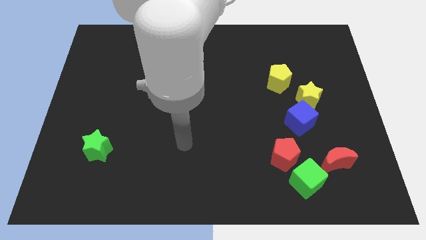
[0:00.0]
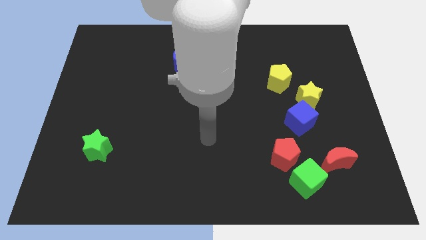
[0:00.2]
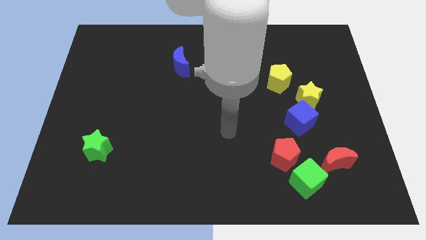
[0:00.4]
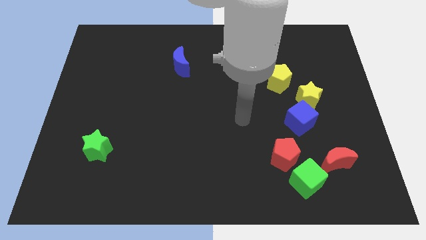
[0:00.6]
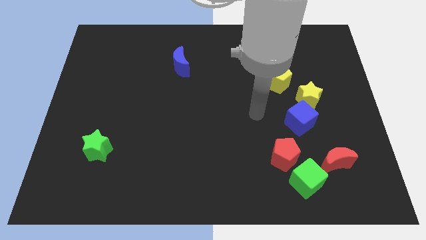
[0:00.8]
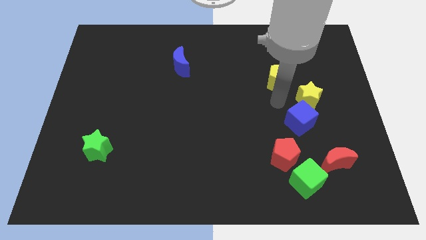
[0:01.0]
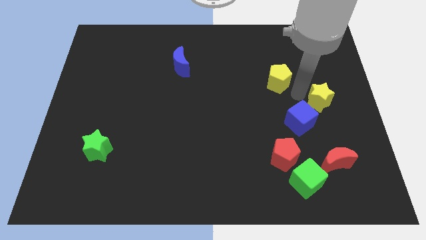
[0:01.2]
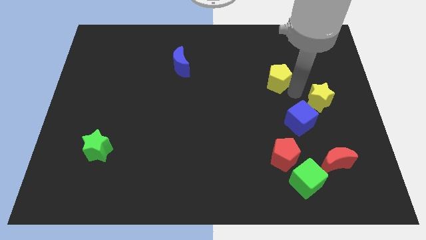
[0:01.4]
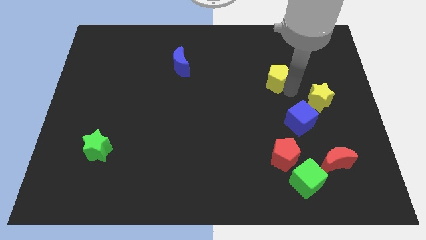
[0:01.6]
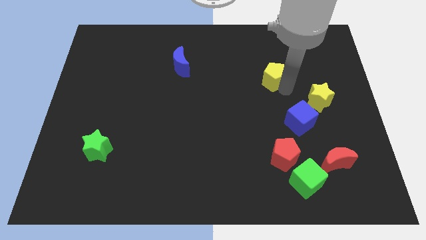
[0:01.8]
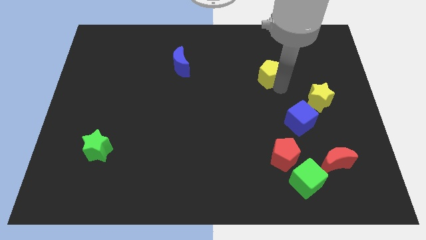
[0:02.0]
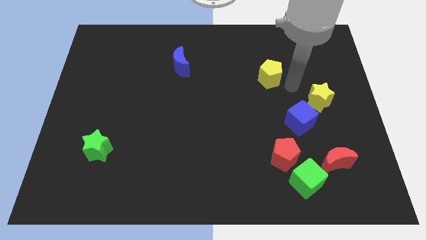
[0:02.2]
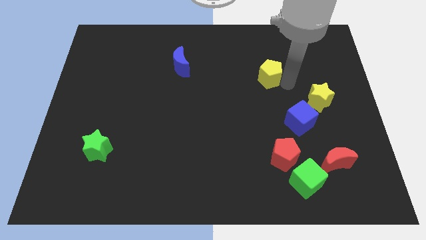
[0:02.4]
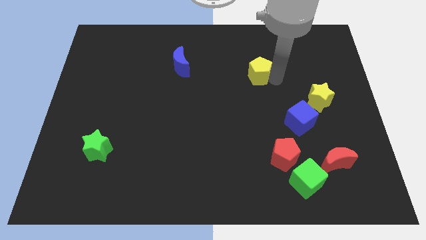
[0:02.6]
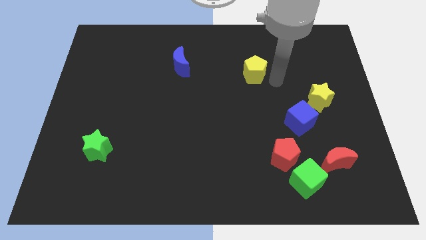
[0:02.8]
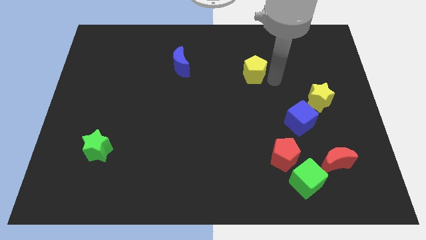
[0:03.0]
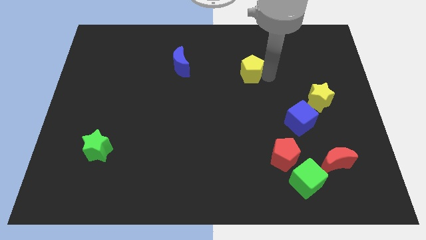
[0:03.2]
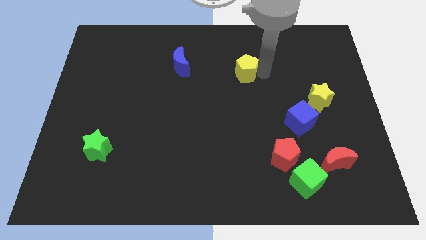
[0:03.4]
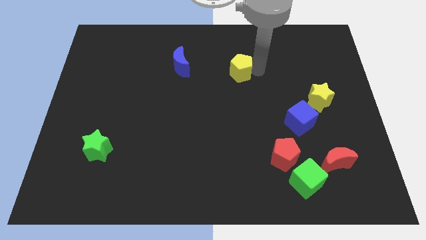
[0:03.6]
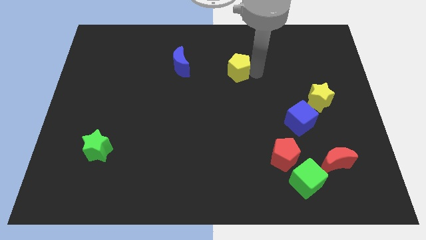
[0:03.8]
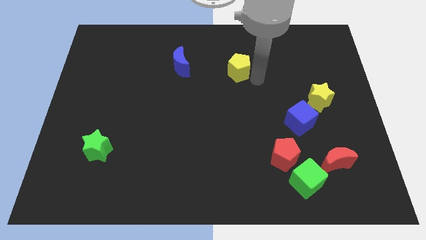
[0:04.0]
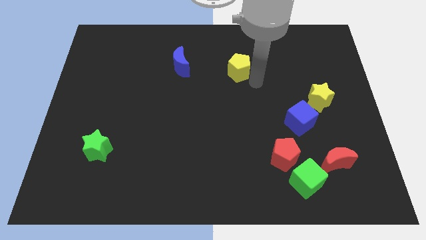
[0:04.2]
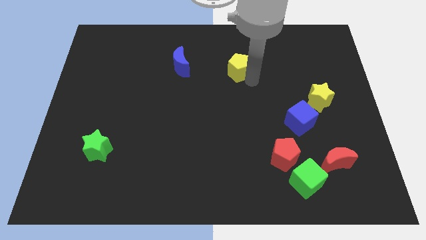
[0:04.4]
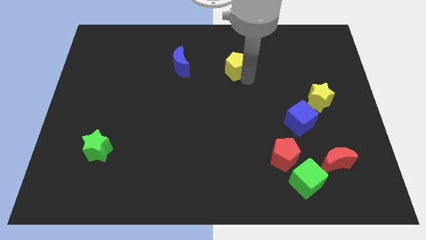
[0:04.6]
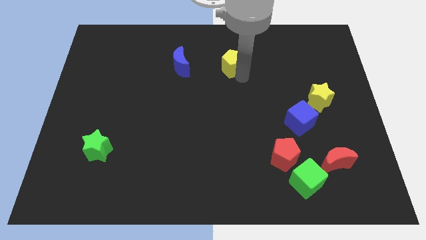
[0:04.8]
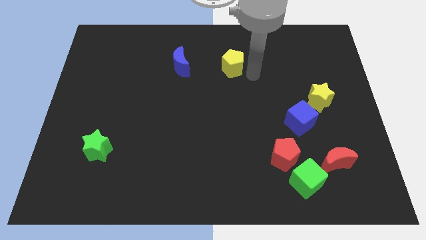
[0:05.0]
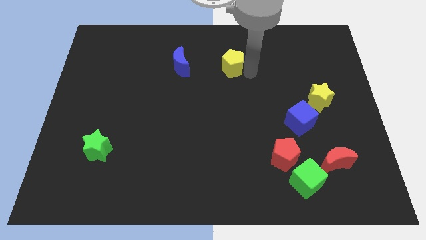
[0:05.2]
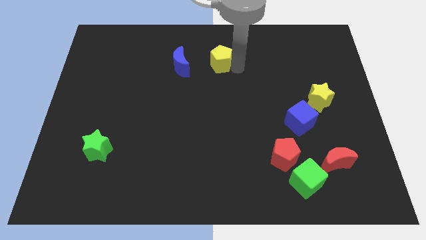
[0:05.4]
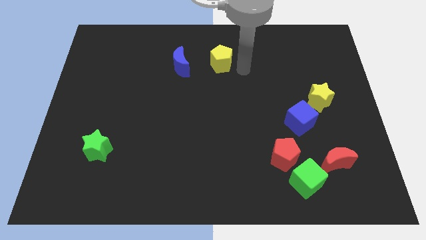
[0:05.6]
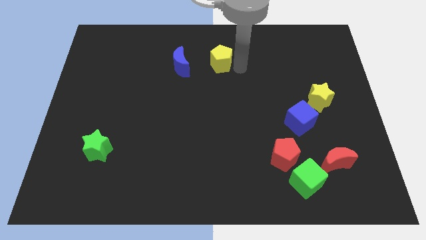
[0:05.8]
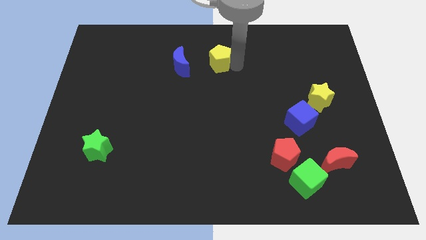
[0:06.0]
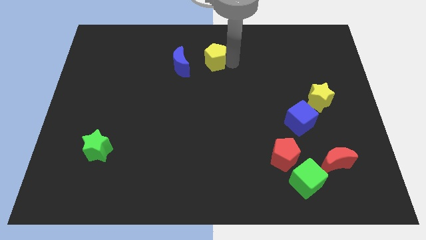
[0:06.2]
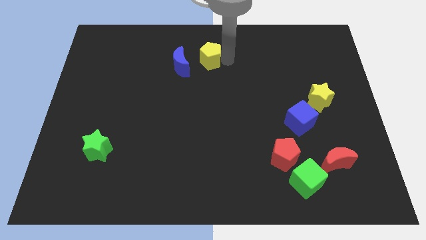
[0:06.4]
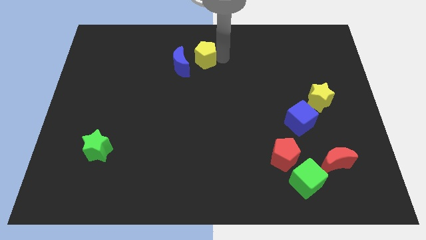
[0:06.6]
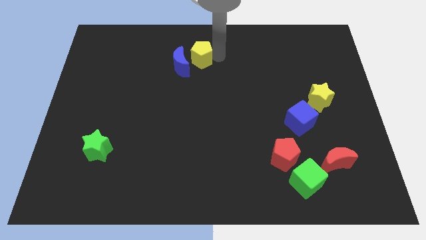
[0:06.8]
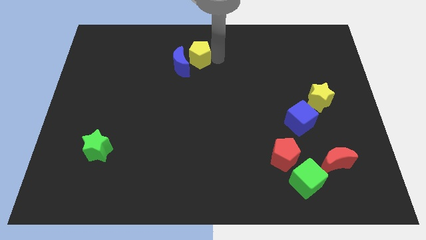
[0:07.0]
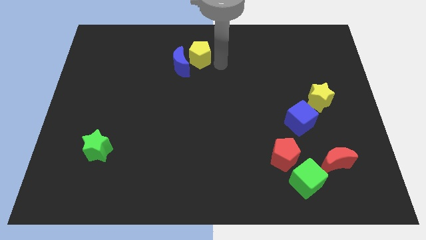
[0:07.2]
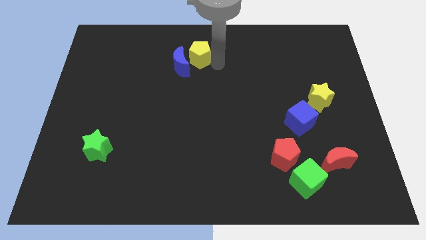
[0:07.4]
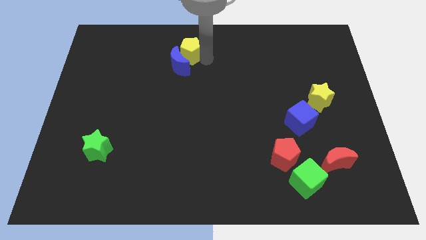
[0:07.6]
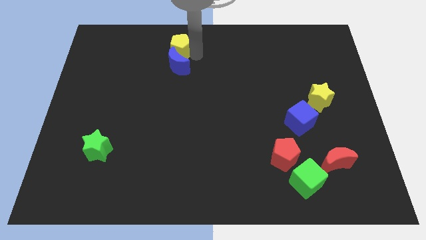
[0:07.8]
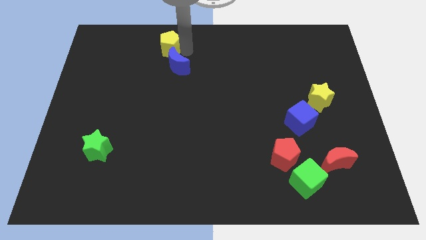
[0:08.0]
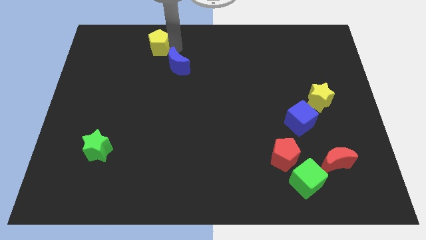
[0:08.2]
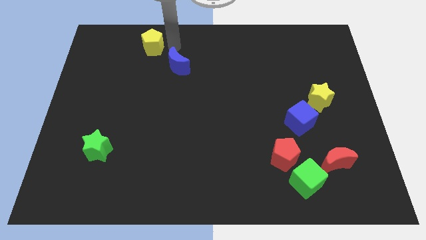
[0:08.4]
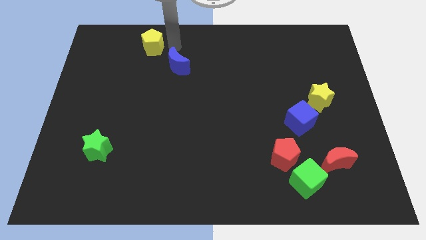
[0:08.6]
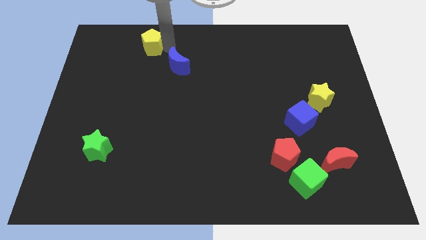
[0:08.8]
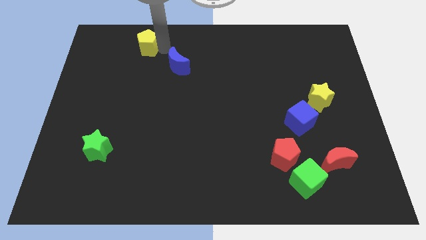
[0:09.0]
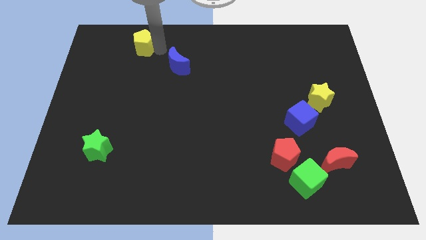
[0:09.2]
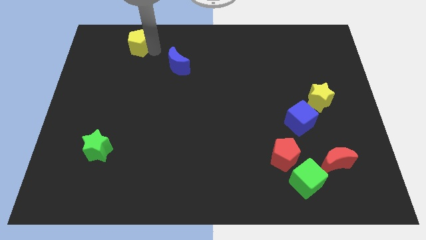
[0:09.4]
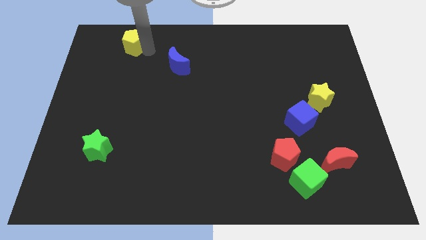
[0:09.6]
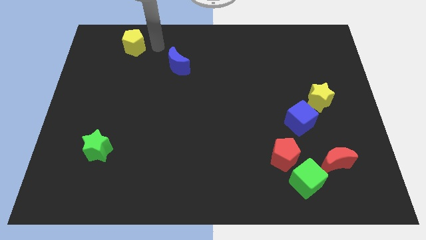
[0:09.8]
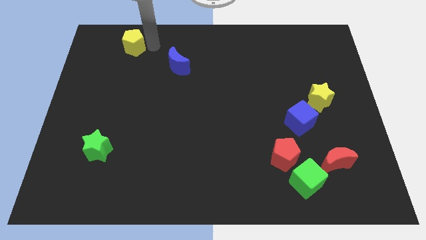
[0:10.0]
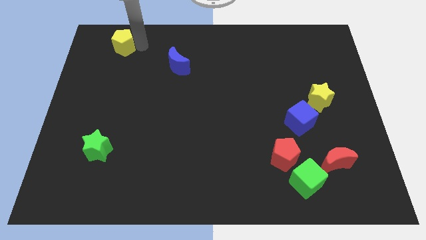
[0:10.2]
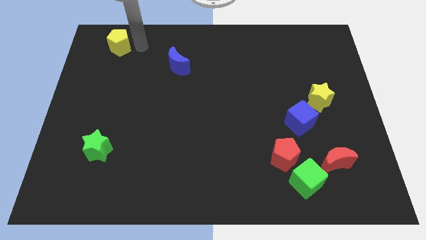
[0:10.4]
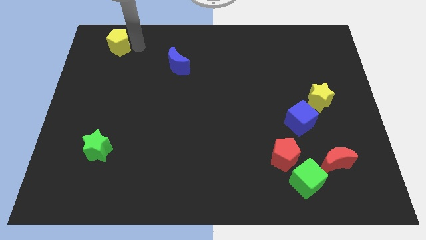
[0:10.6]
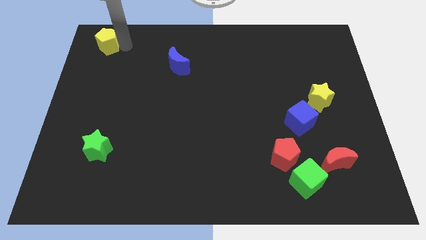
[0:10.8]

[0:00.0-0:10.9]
push the yellow pentagon to the top left

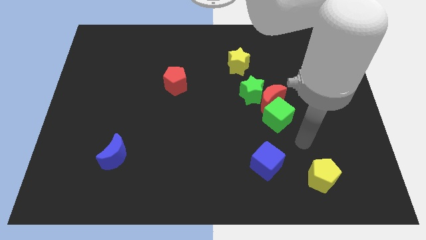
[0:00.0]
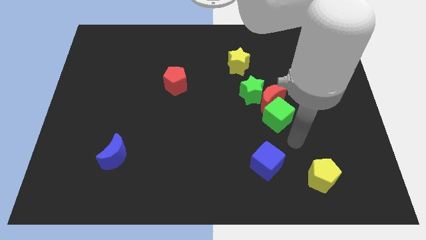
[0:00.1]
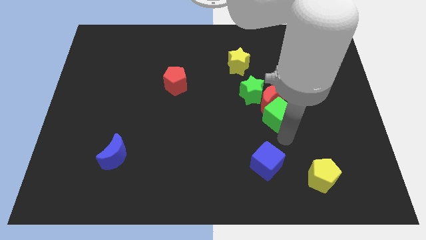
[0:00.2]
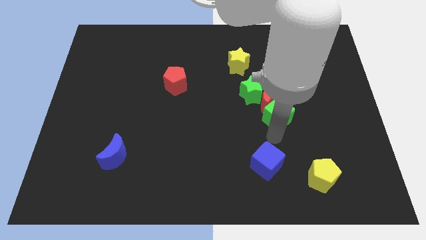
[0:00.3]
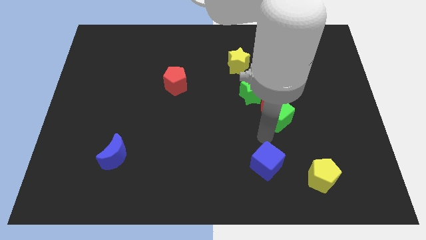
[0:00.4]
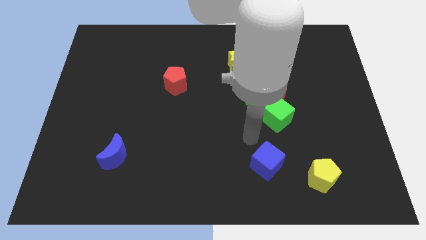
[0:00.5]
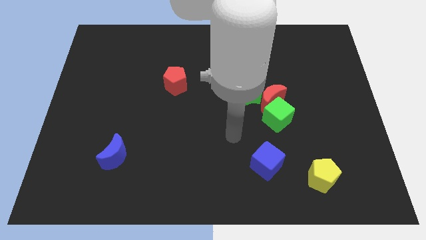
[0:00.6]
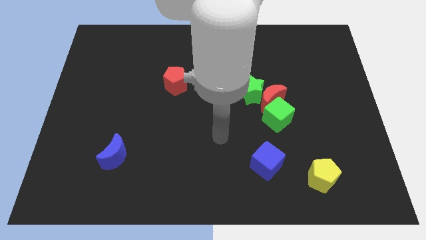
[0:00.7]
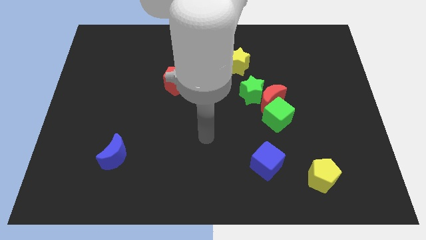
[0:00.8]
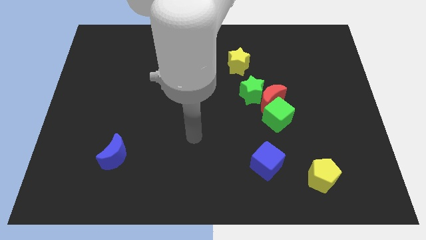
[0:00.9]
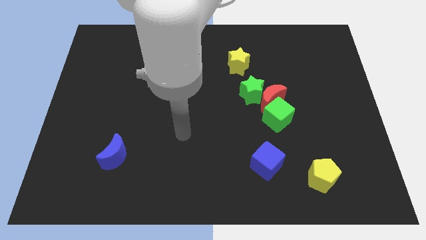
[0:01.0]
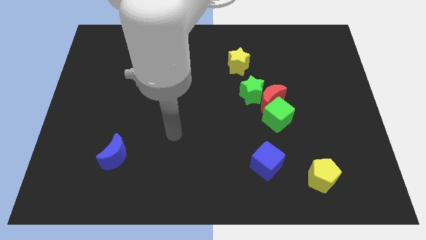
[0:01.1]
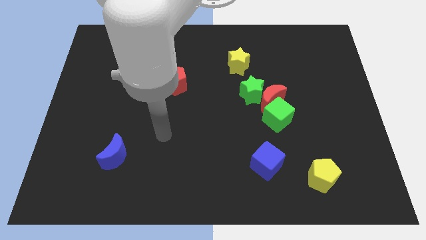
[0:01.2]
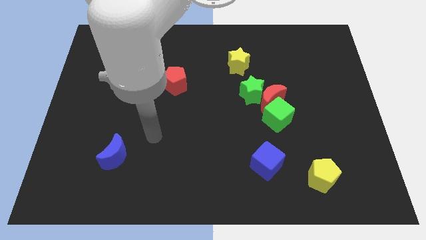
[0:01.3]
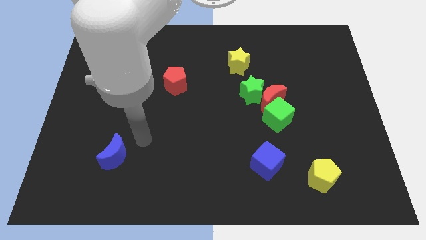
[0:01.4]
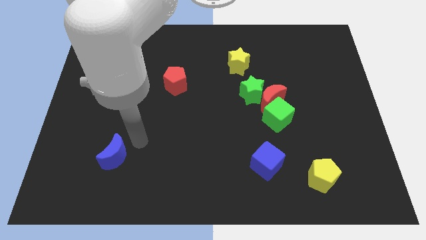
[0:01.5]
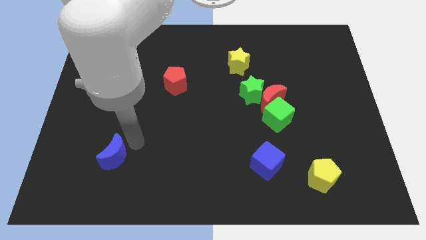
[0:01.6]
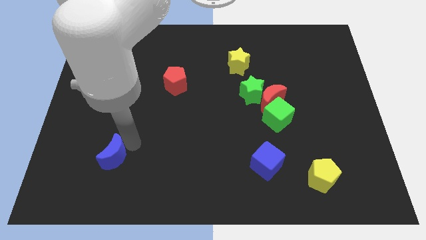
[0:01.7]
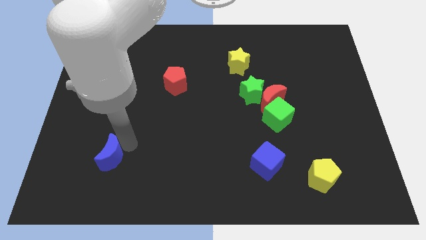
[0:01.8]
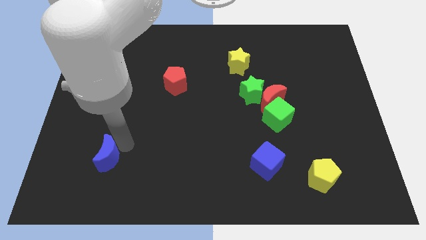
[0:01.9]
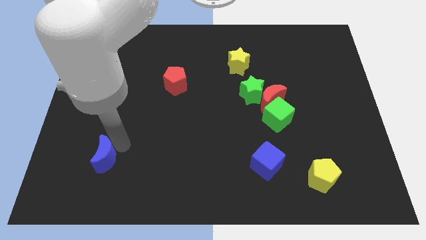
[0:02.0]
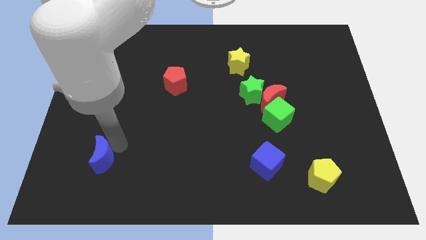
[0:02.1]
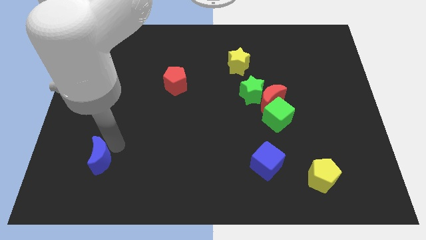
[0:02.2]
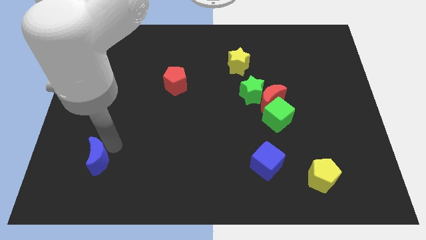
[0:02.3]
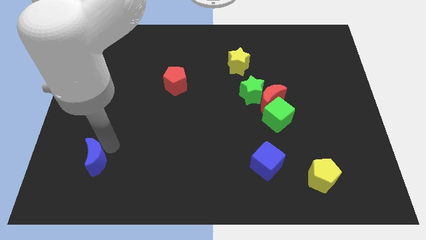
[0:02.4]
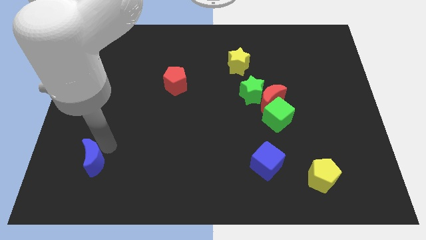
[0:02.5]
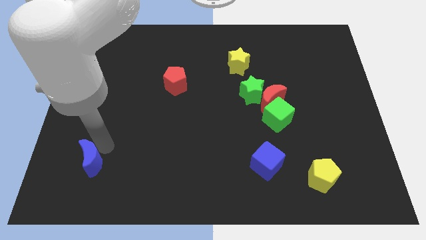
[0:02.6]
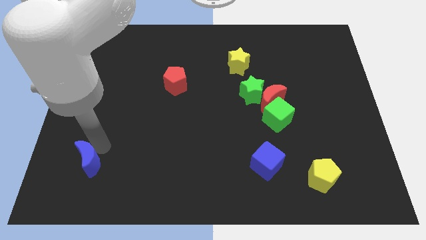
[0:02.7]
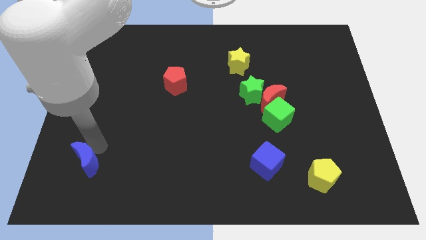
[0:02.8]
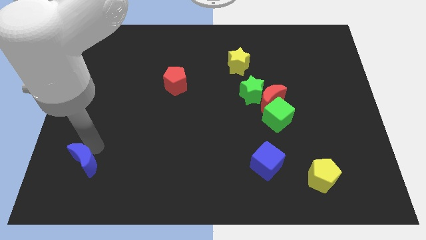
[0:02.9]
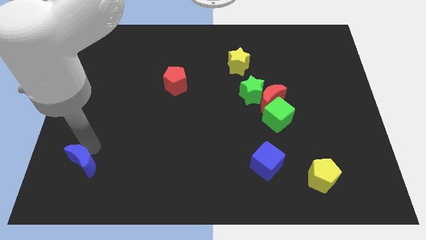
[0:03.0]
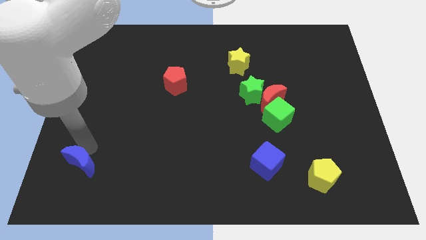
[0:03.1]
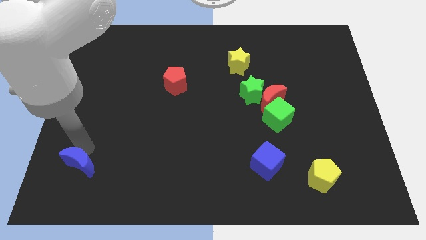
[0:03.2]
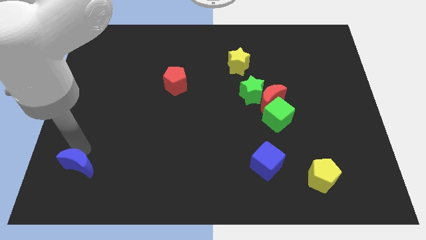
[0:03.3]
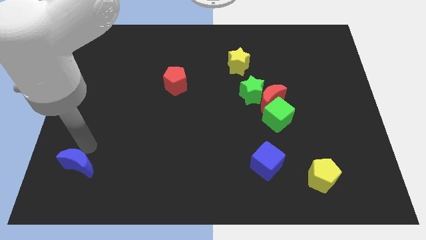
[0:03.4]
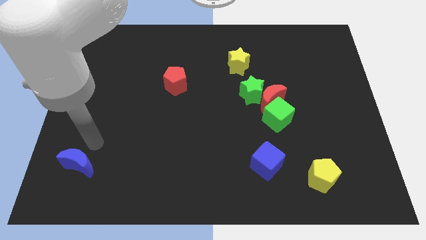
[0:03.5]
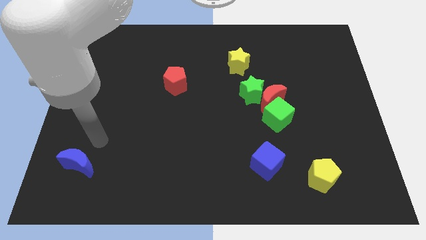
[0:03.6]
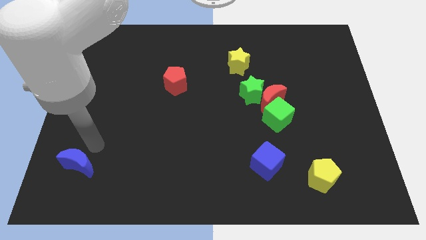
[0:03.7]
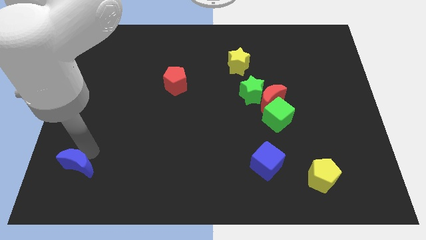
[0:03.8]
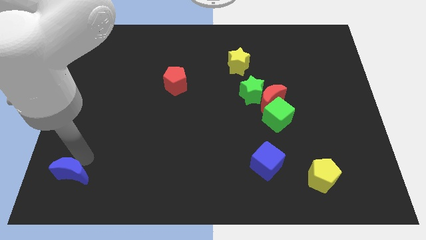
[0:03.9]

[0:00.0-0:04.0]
move the blue moon to the bottom left corner
